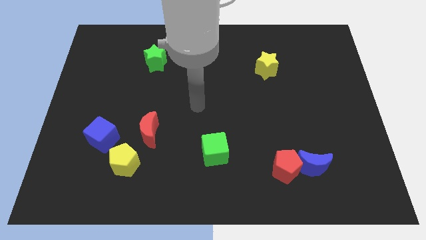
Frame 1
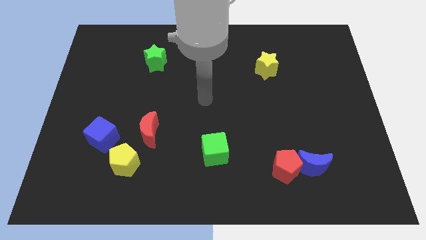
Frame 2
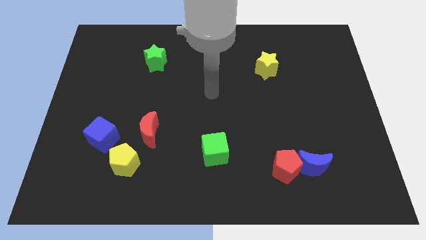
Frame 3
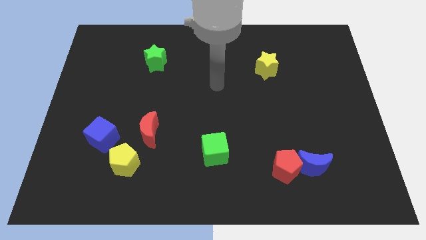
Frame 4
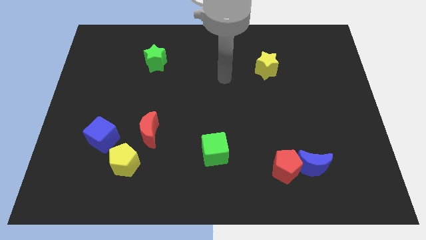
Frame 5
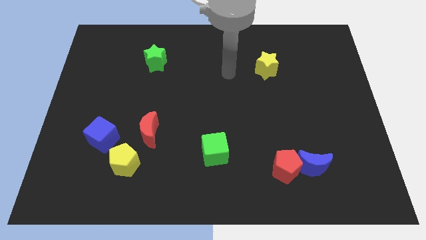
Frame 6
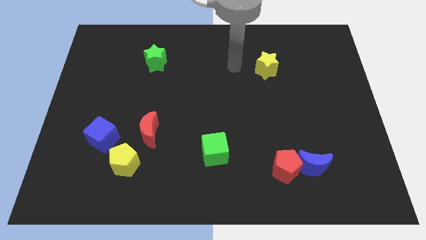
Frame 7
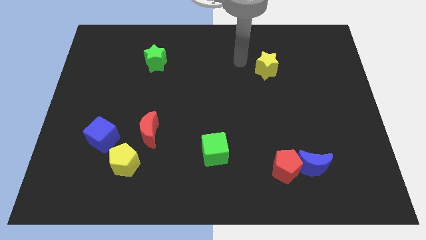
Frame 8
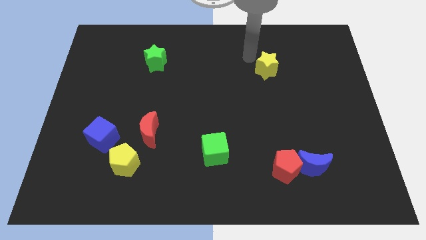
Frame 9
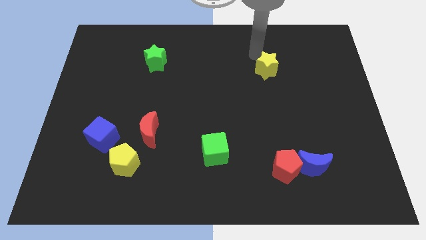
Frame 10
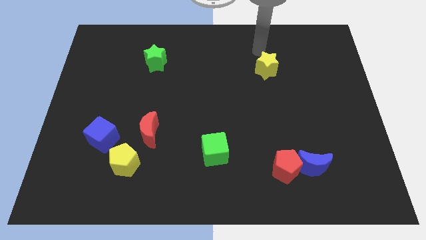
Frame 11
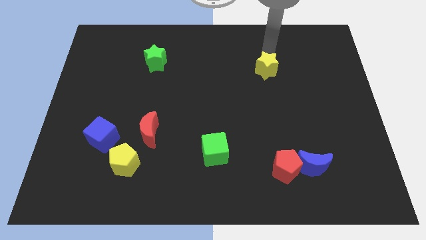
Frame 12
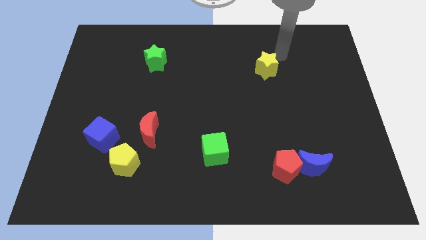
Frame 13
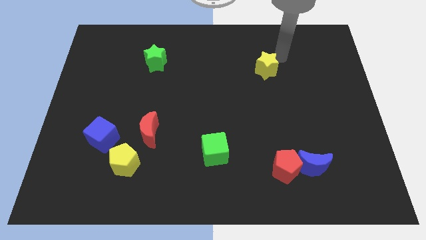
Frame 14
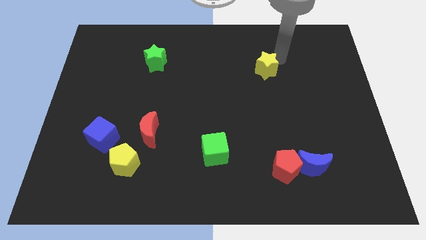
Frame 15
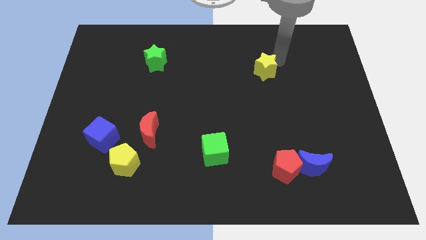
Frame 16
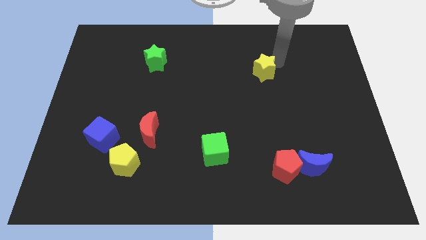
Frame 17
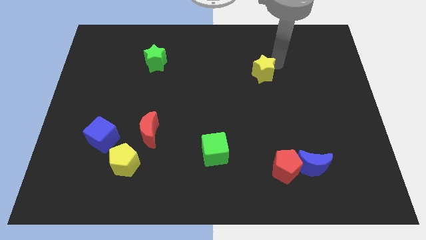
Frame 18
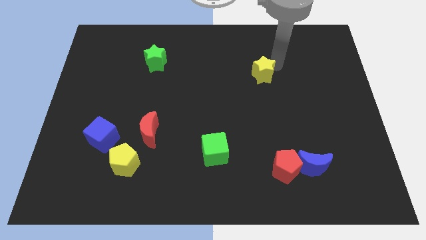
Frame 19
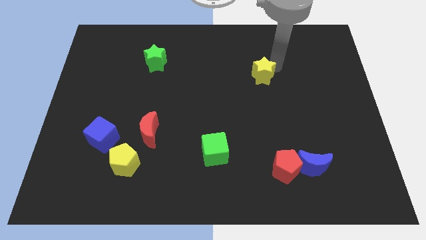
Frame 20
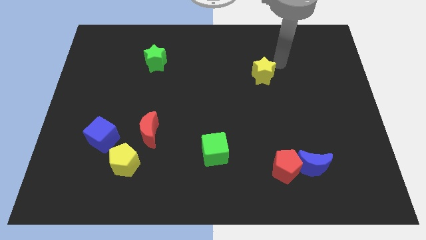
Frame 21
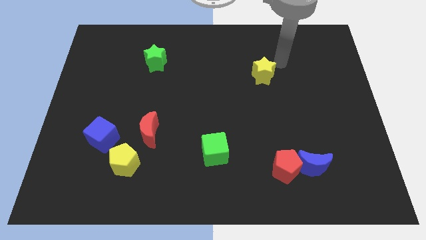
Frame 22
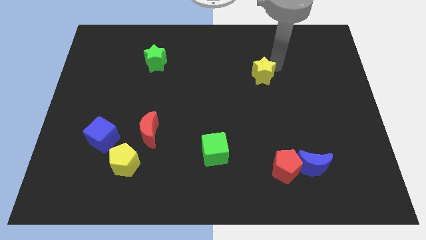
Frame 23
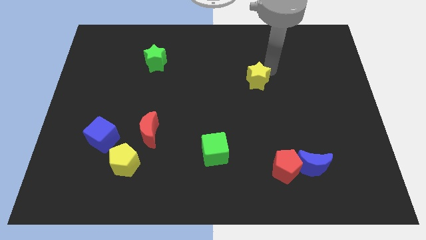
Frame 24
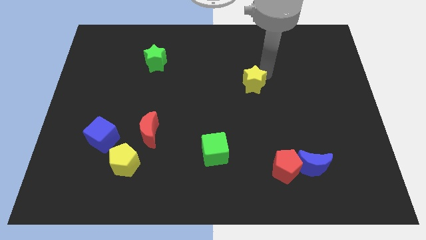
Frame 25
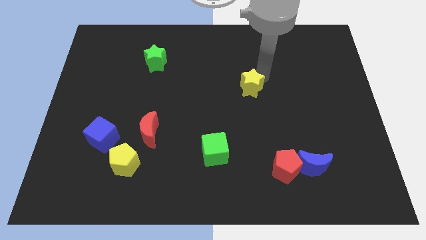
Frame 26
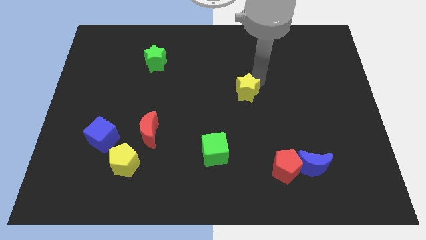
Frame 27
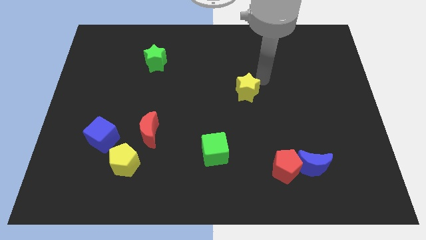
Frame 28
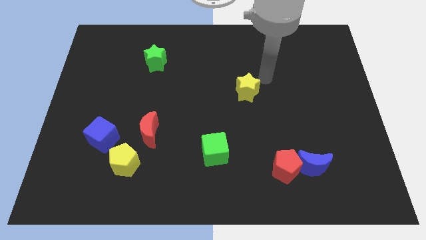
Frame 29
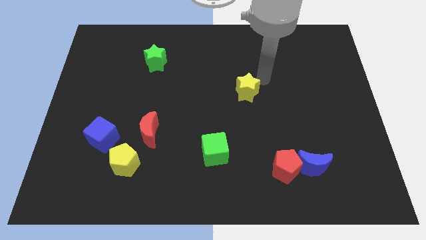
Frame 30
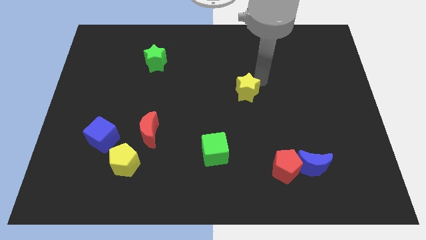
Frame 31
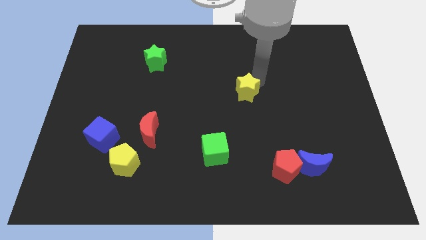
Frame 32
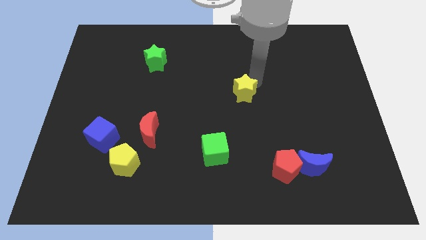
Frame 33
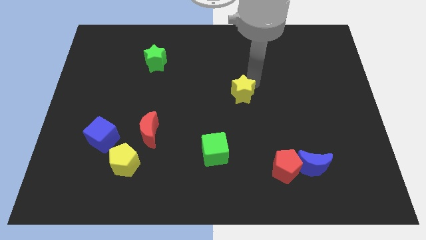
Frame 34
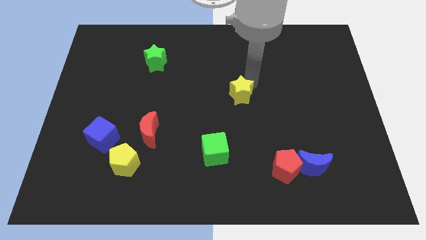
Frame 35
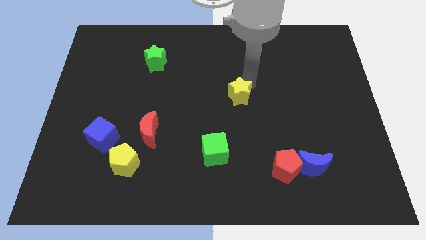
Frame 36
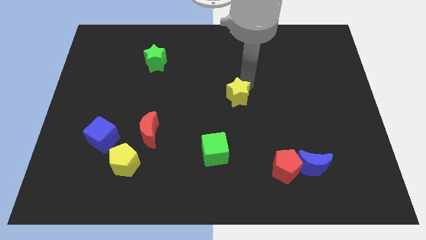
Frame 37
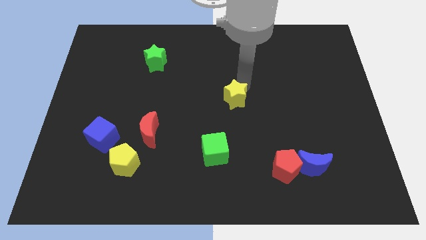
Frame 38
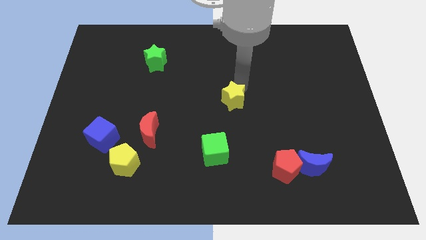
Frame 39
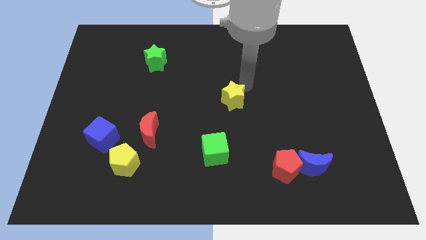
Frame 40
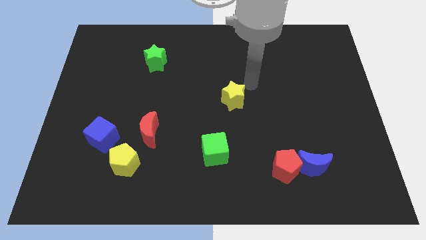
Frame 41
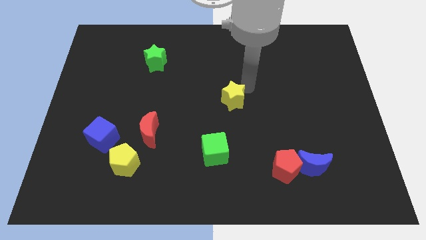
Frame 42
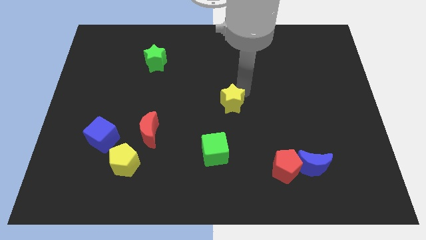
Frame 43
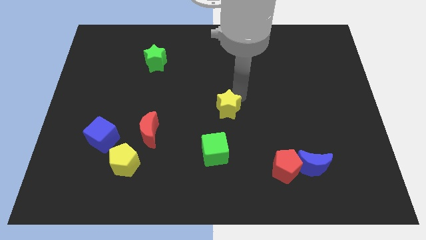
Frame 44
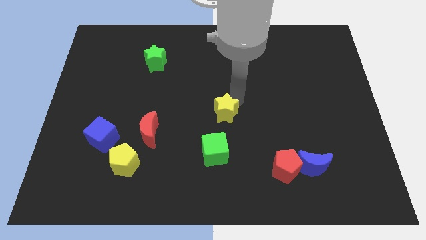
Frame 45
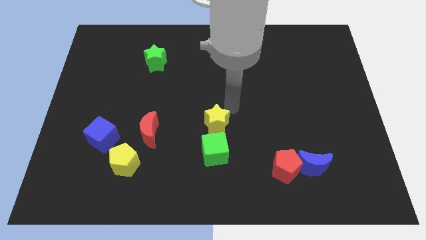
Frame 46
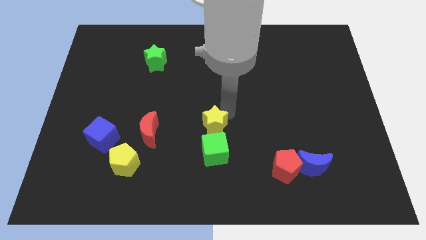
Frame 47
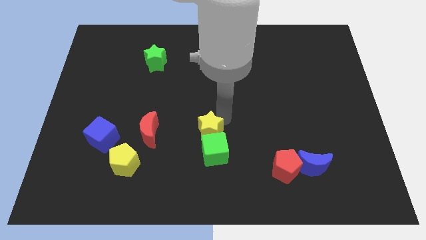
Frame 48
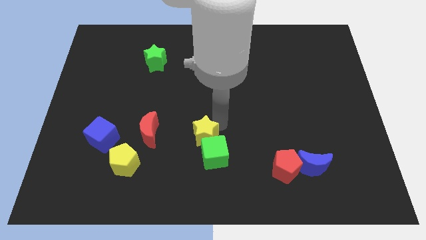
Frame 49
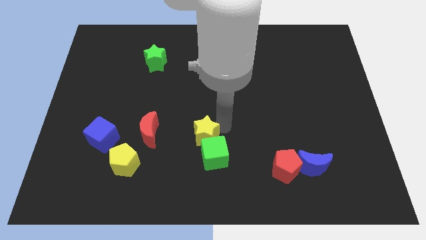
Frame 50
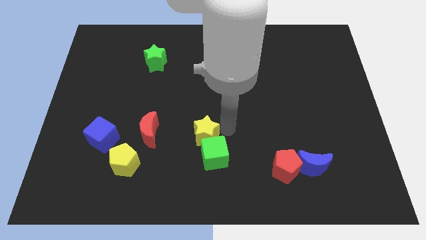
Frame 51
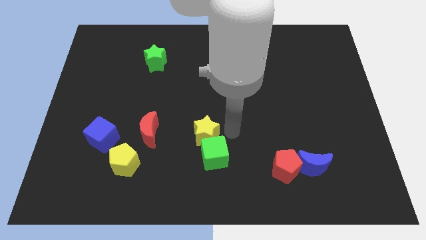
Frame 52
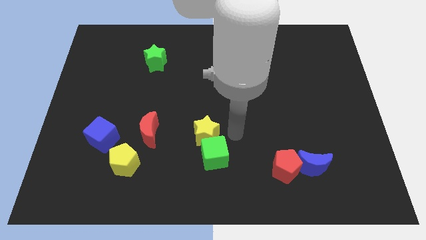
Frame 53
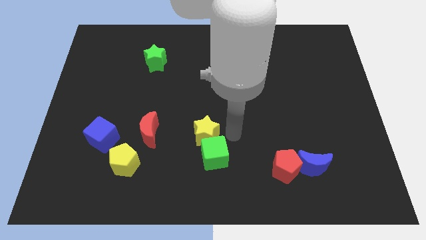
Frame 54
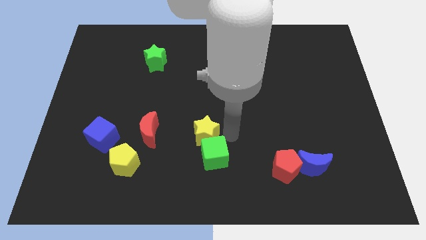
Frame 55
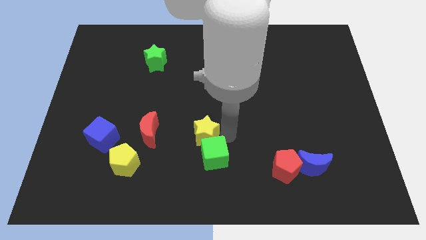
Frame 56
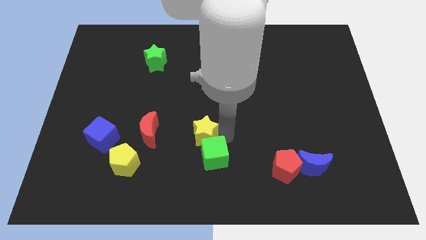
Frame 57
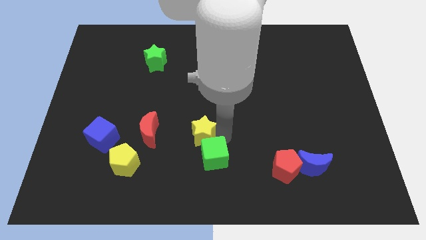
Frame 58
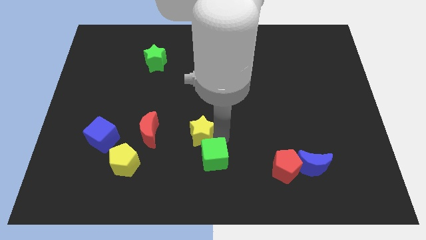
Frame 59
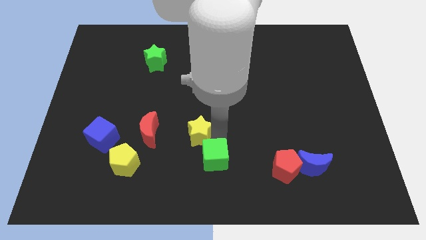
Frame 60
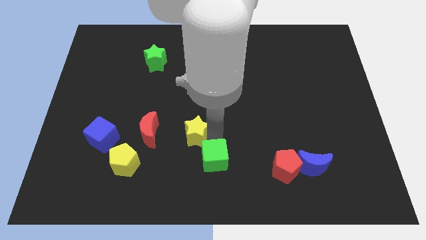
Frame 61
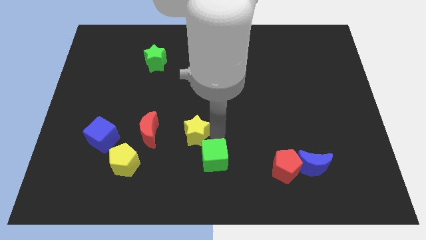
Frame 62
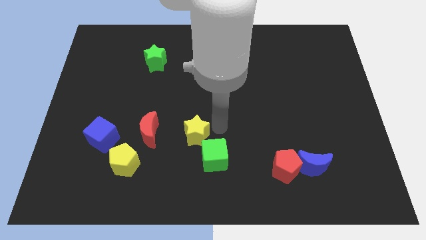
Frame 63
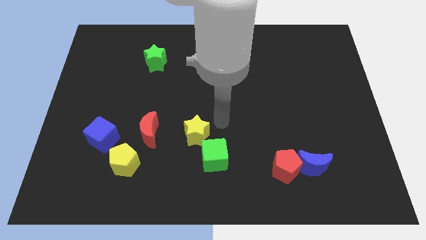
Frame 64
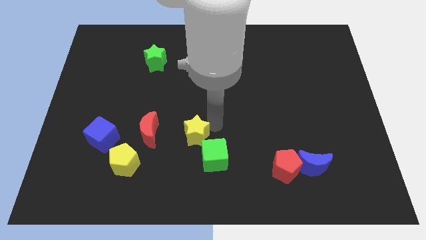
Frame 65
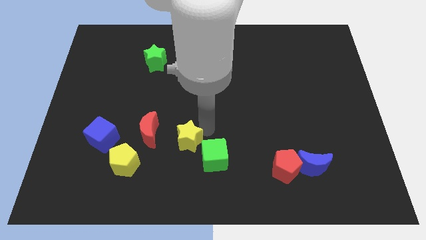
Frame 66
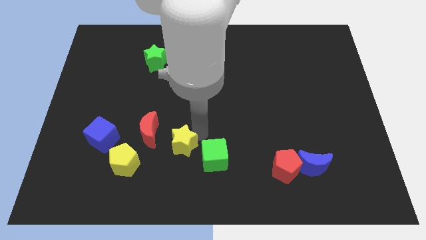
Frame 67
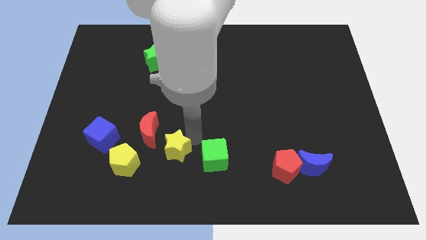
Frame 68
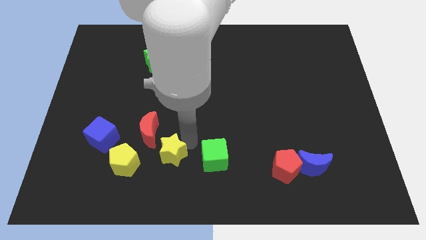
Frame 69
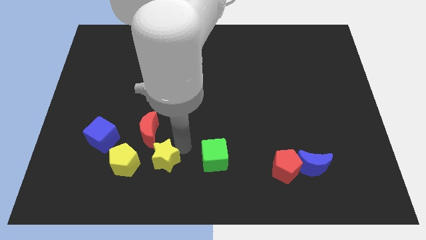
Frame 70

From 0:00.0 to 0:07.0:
slide the yellow star to the bottom of the red moon
